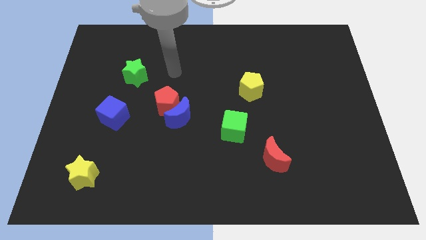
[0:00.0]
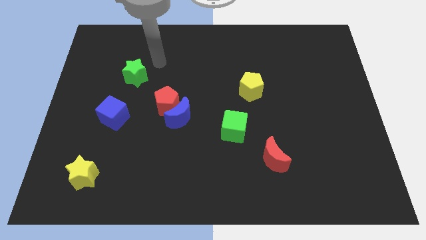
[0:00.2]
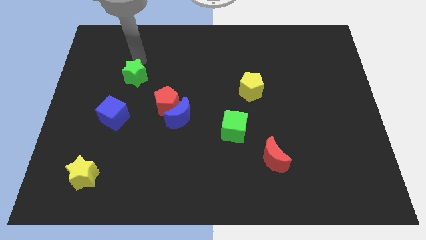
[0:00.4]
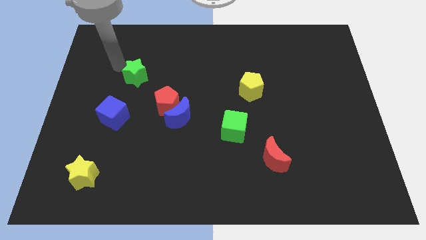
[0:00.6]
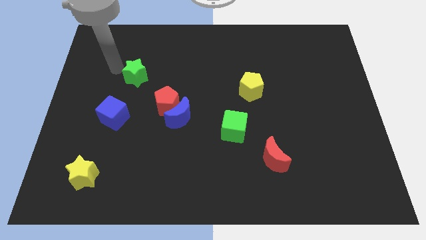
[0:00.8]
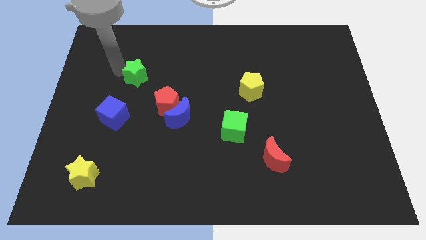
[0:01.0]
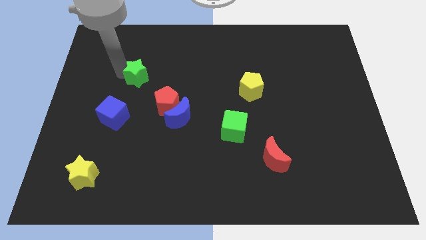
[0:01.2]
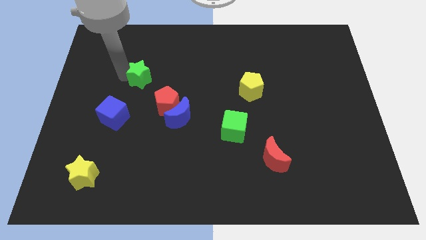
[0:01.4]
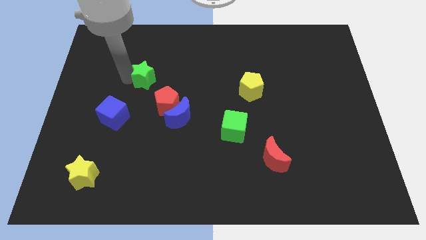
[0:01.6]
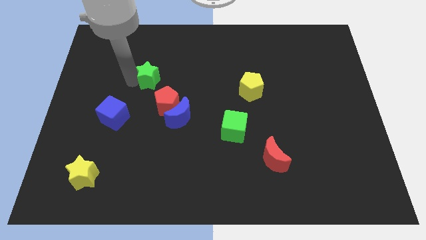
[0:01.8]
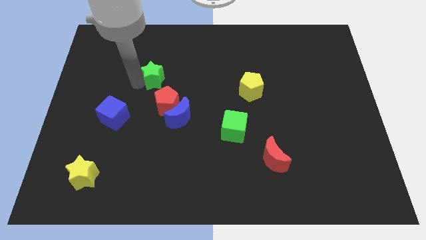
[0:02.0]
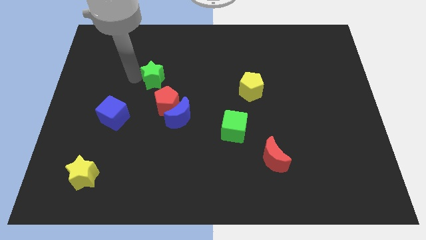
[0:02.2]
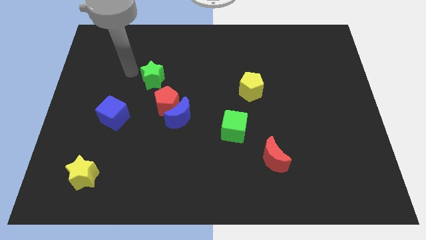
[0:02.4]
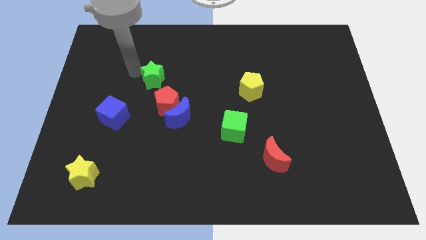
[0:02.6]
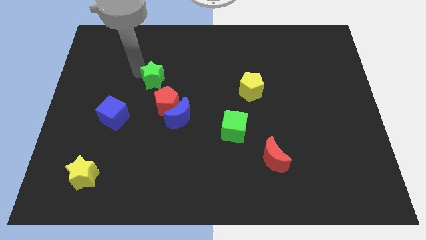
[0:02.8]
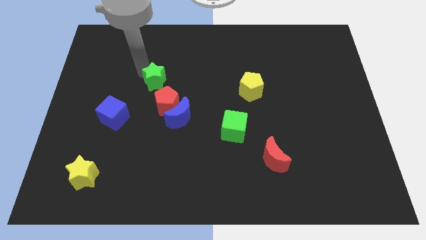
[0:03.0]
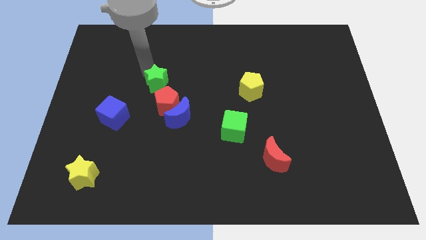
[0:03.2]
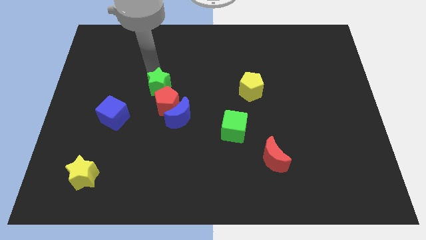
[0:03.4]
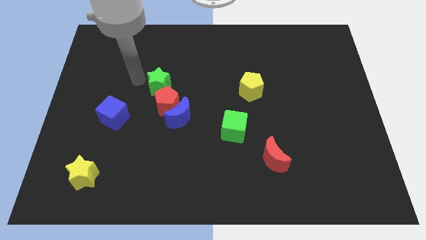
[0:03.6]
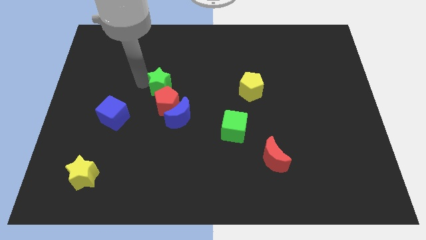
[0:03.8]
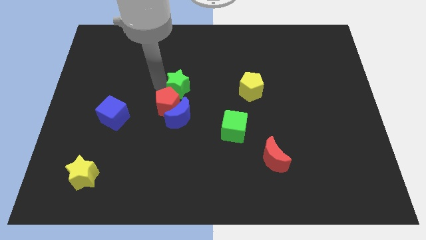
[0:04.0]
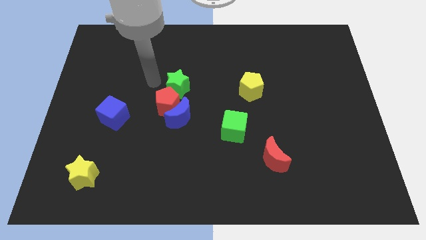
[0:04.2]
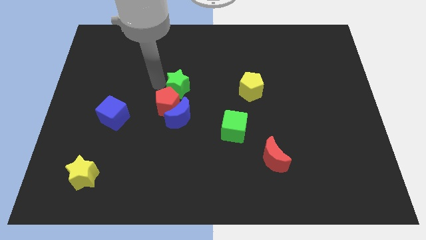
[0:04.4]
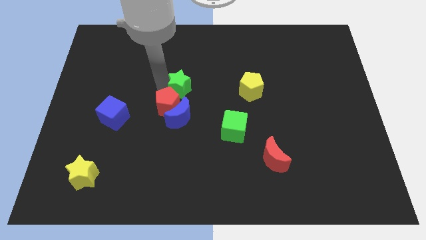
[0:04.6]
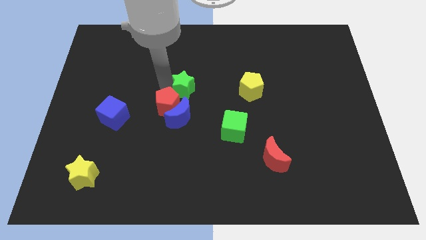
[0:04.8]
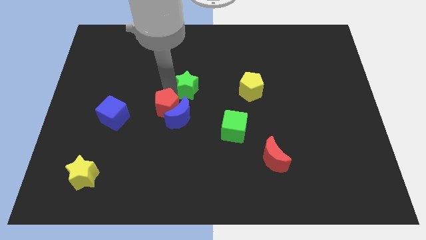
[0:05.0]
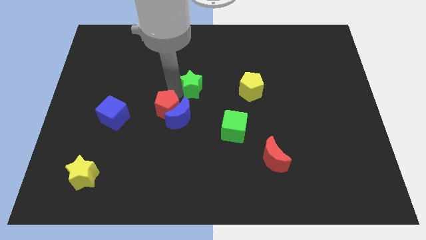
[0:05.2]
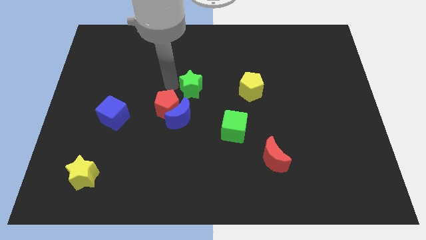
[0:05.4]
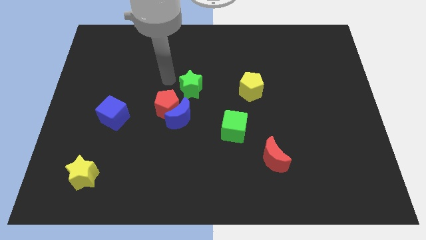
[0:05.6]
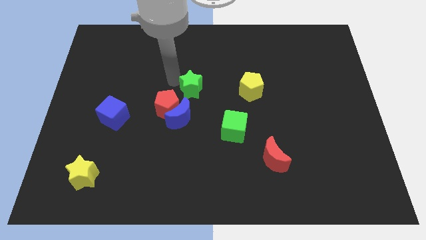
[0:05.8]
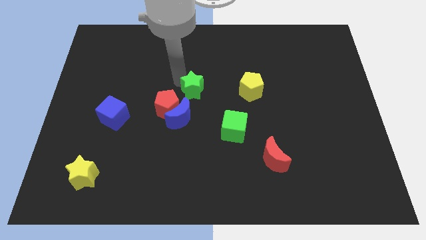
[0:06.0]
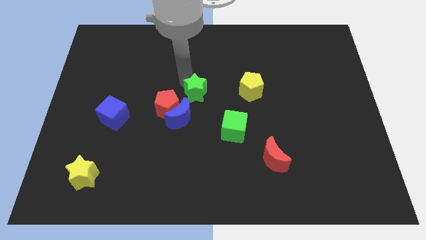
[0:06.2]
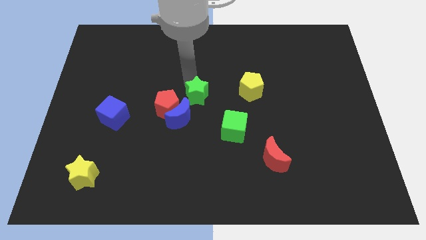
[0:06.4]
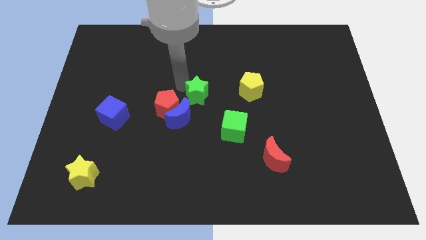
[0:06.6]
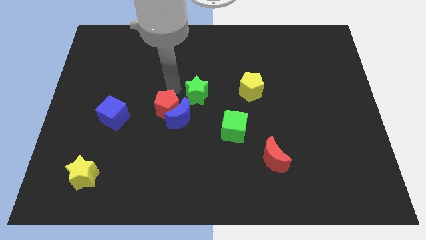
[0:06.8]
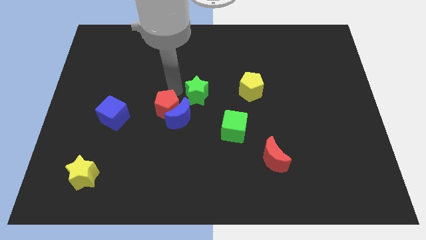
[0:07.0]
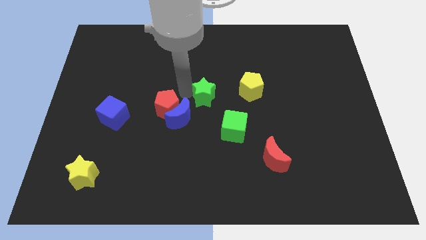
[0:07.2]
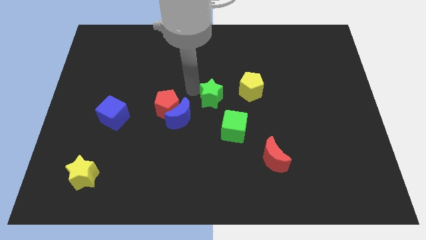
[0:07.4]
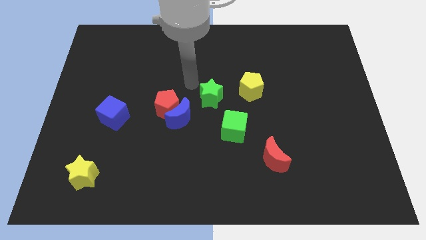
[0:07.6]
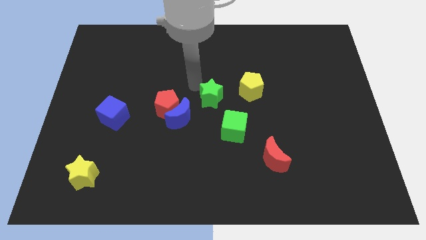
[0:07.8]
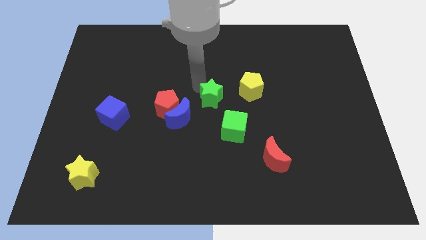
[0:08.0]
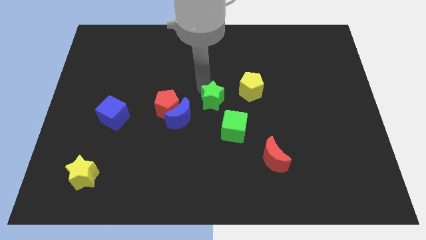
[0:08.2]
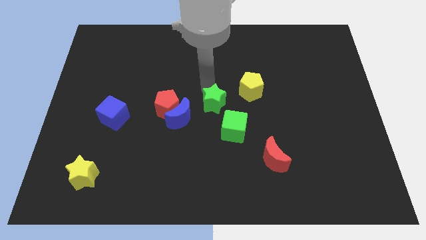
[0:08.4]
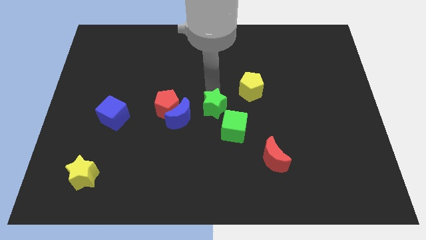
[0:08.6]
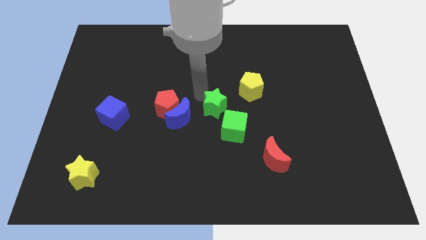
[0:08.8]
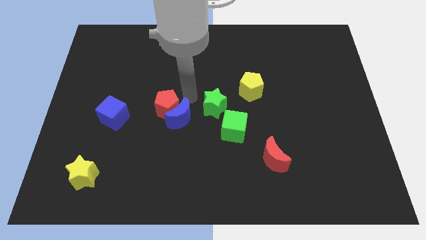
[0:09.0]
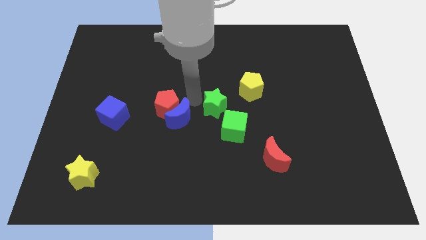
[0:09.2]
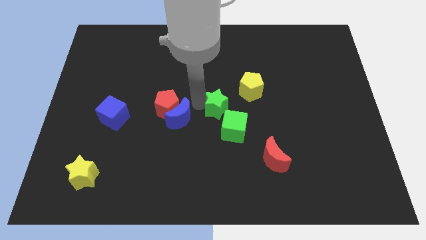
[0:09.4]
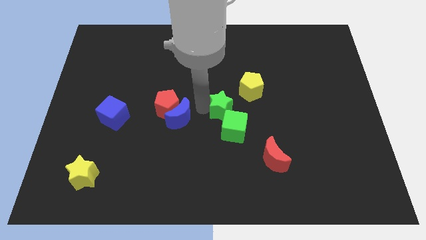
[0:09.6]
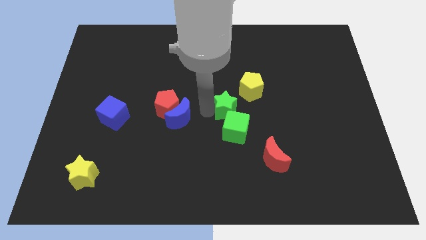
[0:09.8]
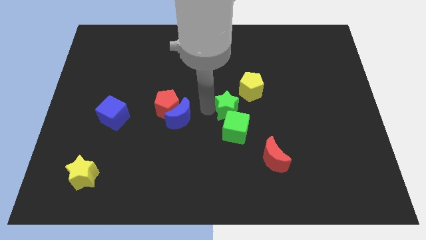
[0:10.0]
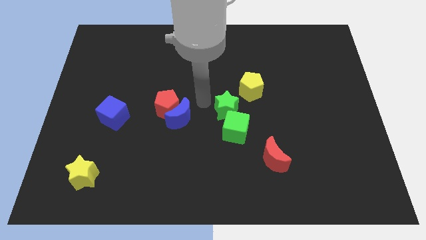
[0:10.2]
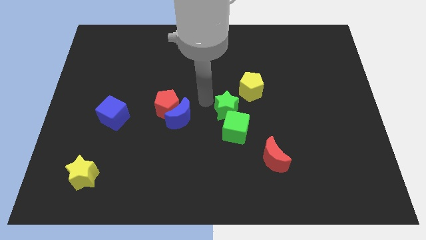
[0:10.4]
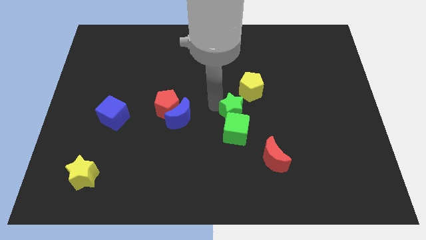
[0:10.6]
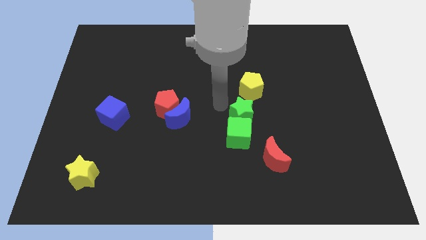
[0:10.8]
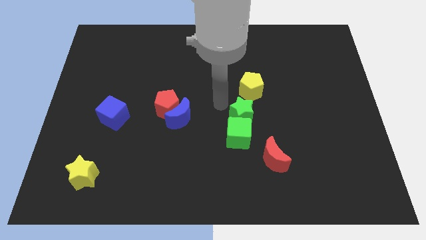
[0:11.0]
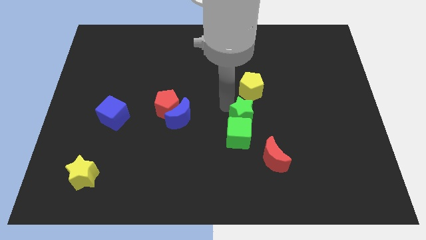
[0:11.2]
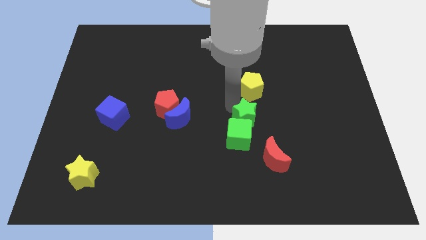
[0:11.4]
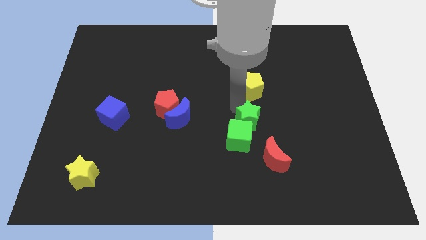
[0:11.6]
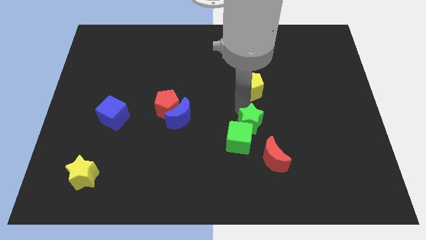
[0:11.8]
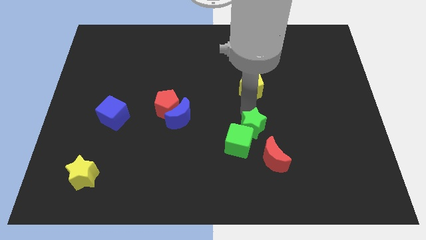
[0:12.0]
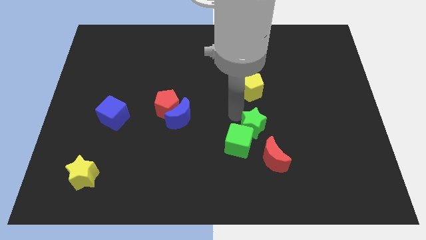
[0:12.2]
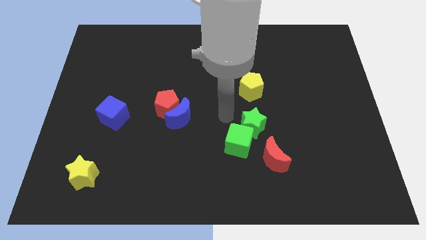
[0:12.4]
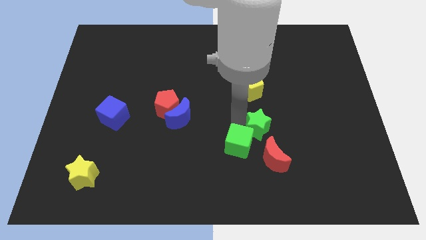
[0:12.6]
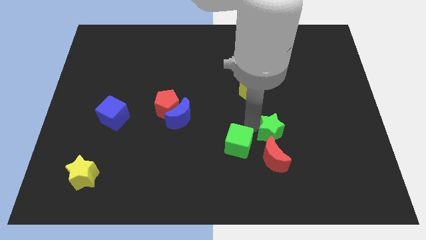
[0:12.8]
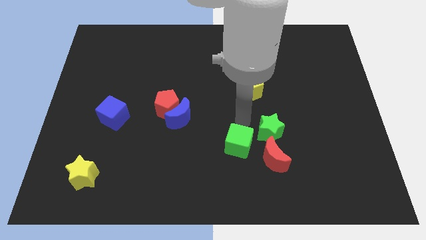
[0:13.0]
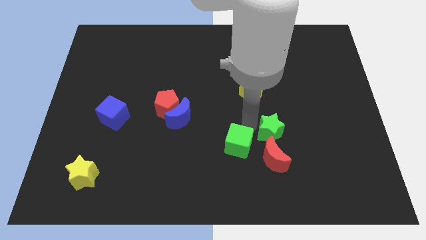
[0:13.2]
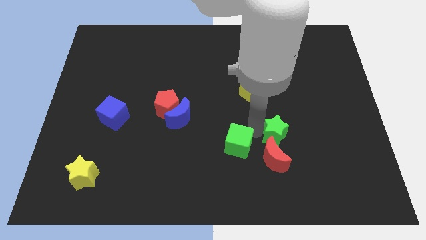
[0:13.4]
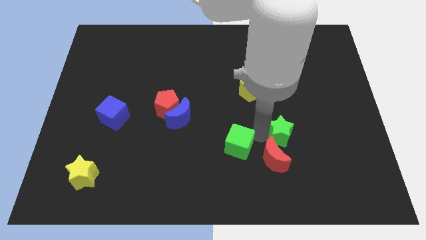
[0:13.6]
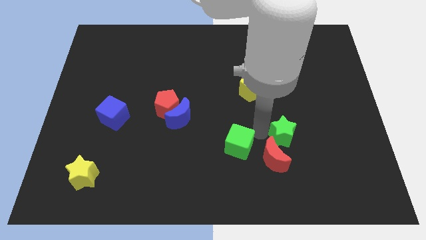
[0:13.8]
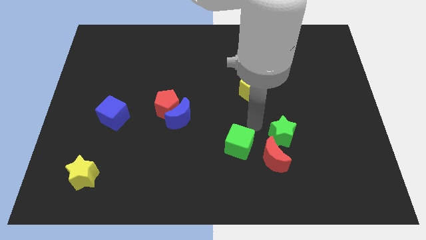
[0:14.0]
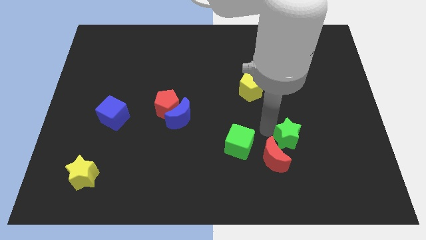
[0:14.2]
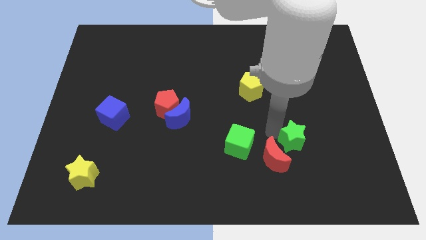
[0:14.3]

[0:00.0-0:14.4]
move the green star just right of the red moon
